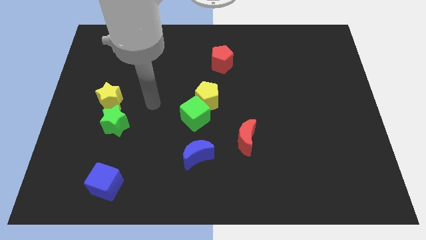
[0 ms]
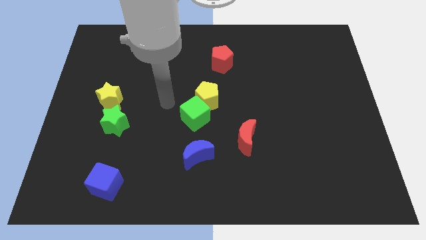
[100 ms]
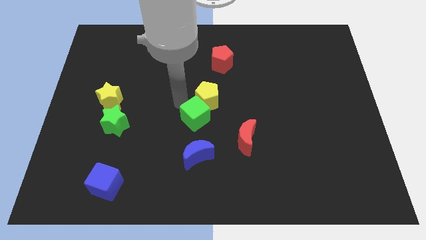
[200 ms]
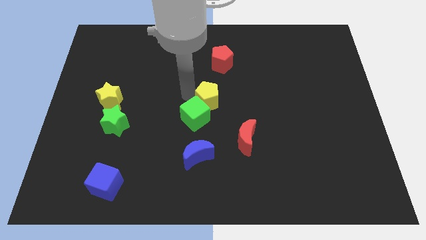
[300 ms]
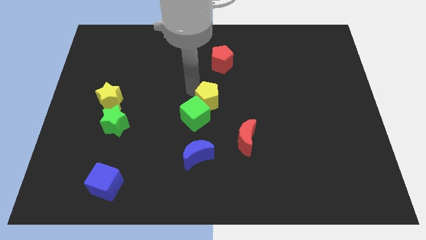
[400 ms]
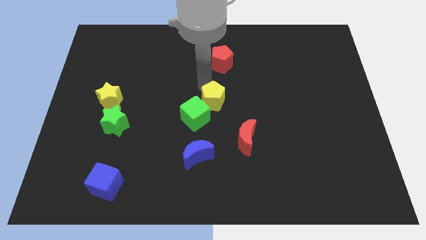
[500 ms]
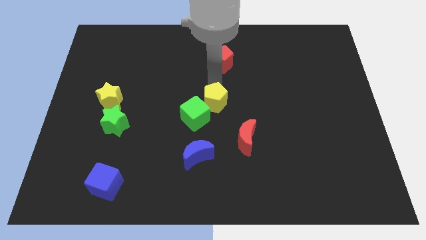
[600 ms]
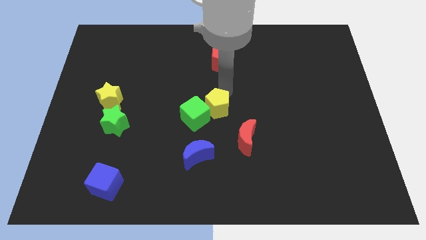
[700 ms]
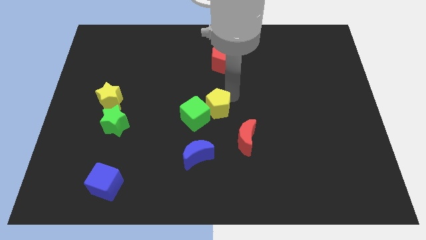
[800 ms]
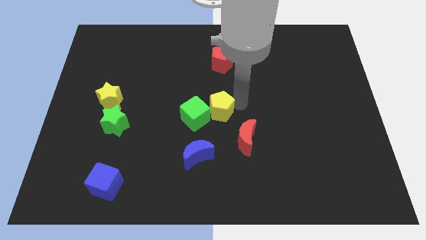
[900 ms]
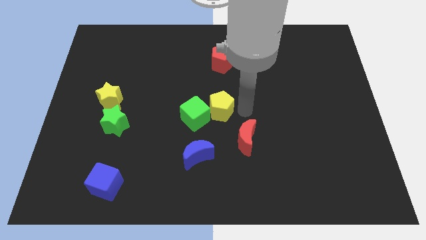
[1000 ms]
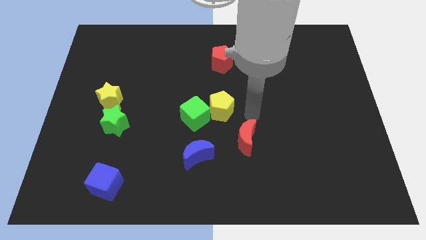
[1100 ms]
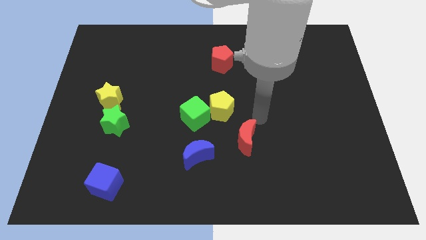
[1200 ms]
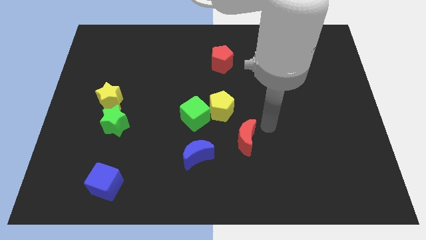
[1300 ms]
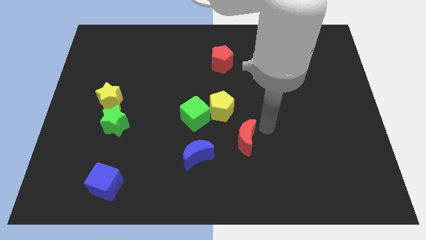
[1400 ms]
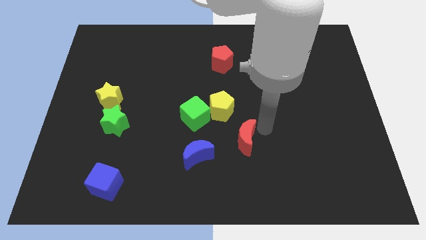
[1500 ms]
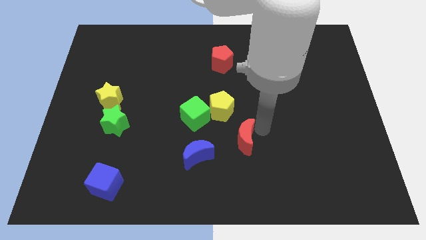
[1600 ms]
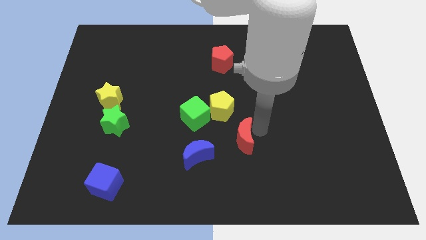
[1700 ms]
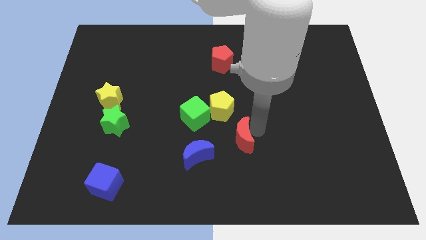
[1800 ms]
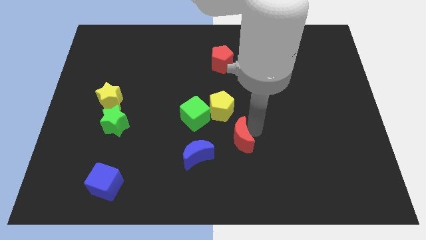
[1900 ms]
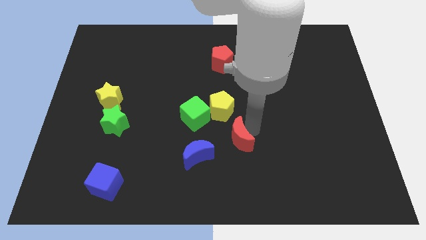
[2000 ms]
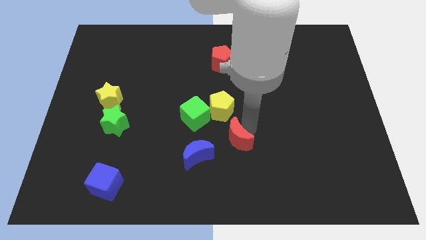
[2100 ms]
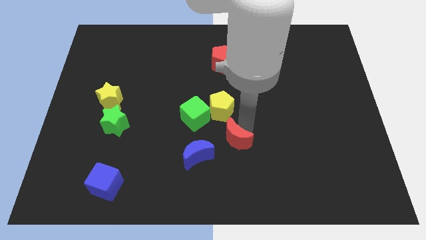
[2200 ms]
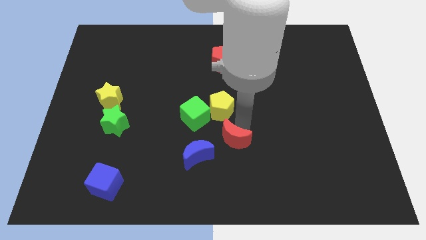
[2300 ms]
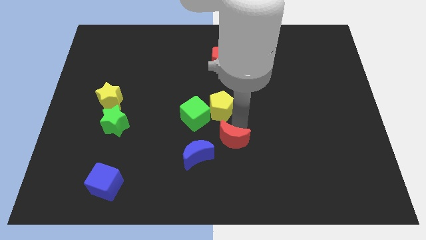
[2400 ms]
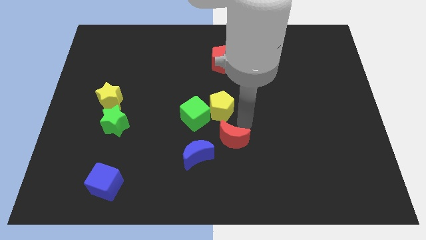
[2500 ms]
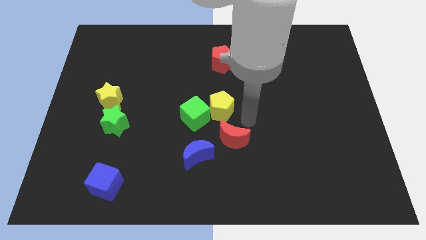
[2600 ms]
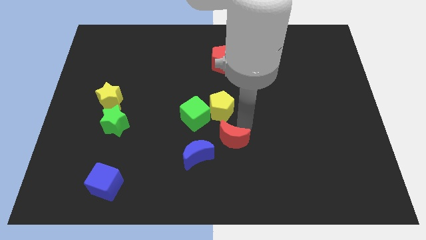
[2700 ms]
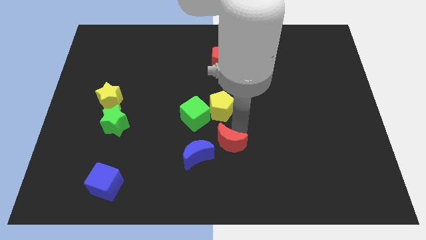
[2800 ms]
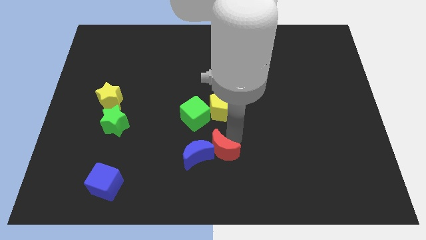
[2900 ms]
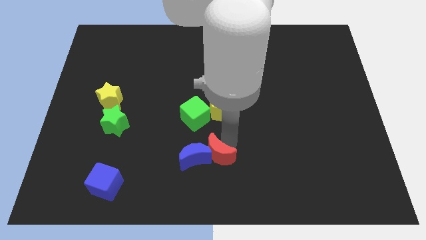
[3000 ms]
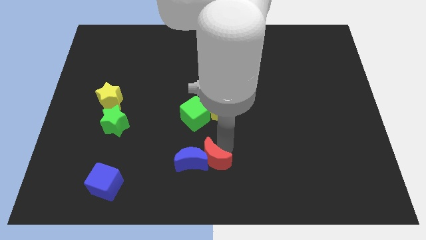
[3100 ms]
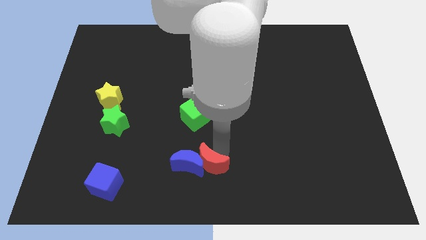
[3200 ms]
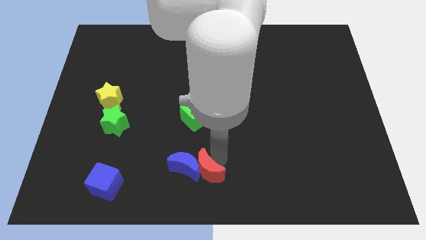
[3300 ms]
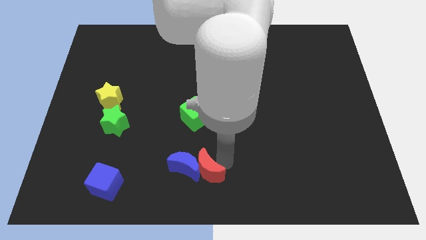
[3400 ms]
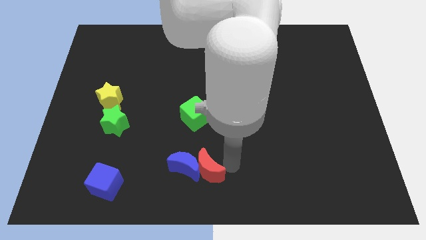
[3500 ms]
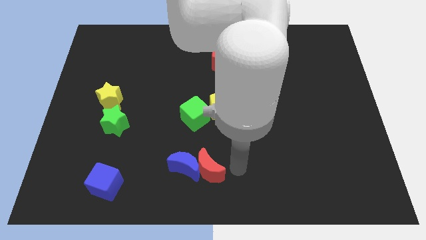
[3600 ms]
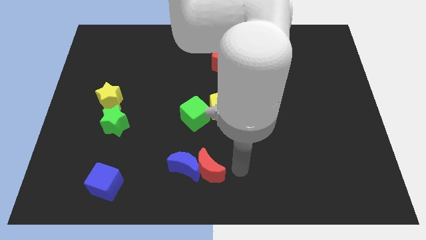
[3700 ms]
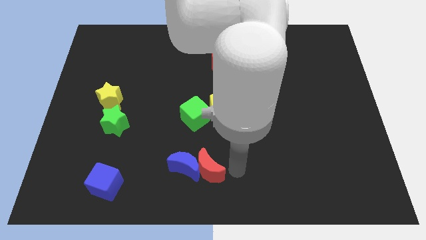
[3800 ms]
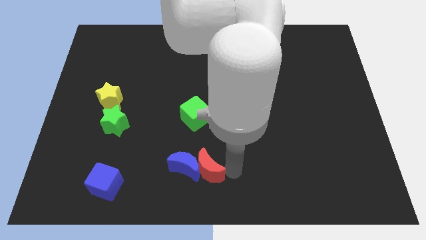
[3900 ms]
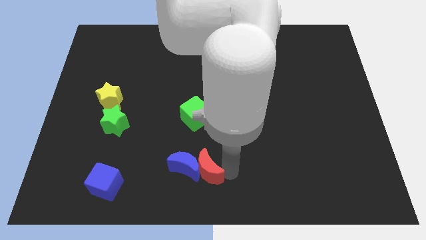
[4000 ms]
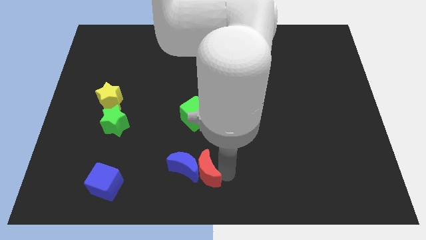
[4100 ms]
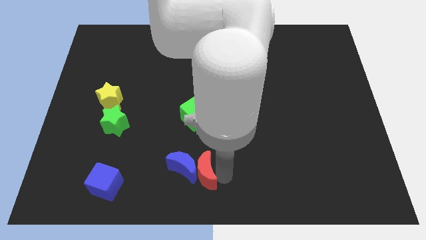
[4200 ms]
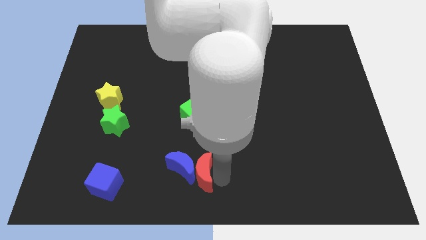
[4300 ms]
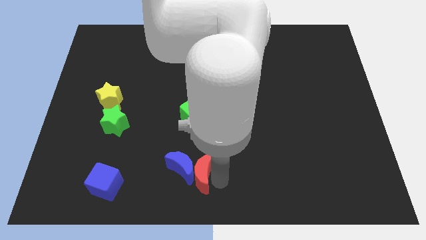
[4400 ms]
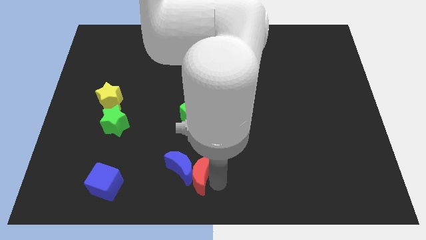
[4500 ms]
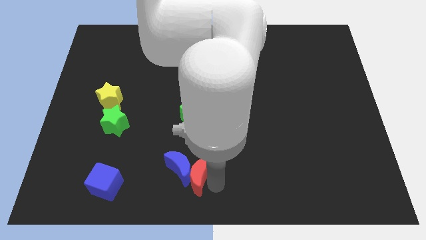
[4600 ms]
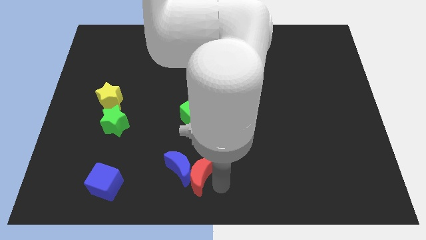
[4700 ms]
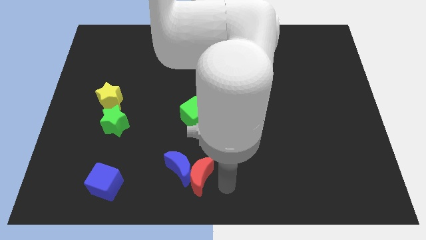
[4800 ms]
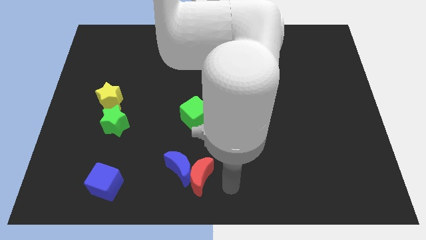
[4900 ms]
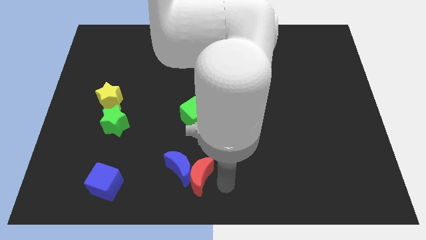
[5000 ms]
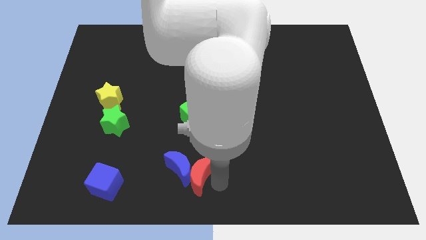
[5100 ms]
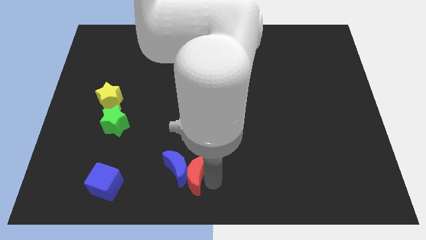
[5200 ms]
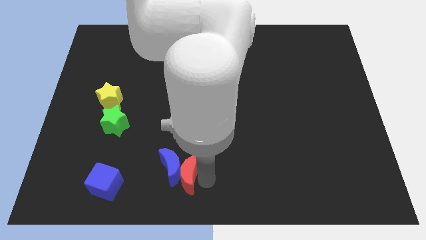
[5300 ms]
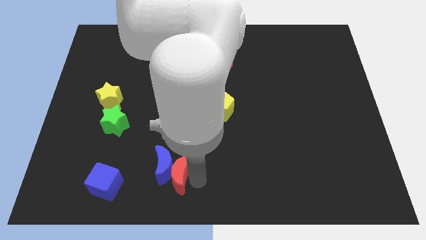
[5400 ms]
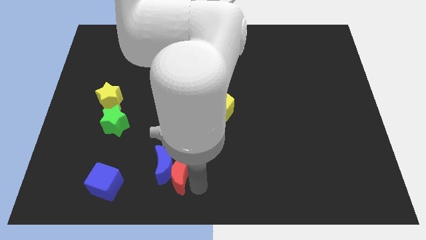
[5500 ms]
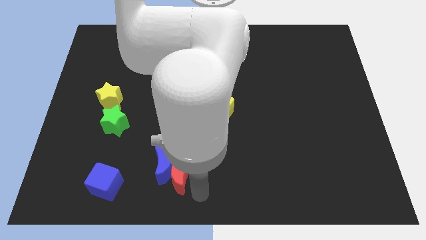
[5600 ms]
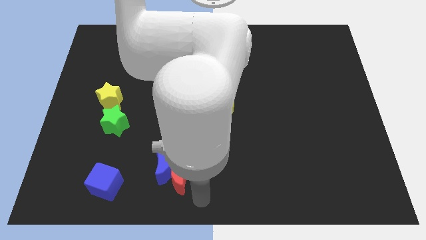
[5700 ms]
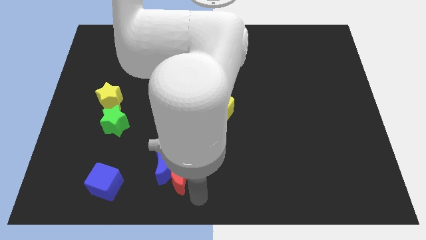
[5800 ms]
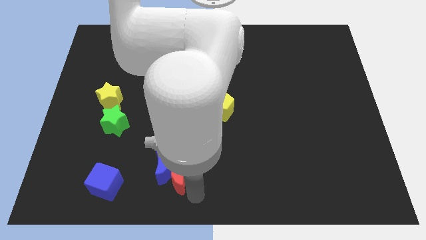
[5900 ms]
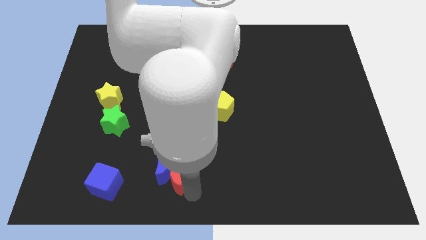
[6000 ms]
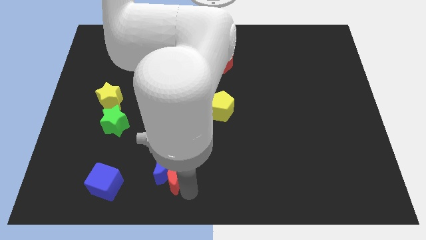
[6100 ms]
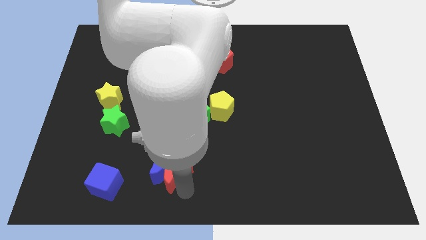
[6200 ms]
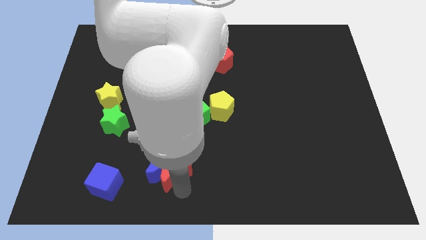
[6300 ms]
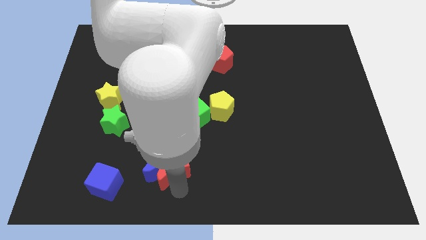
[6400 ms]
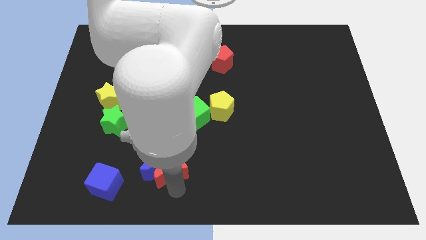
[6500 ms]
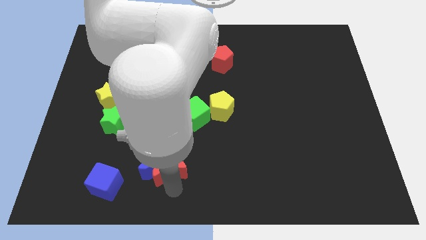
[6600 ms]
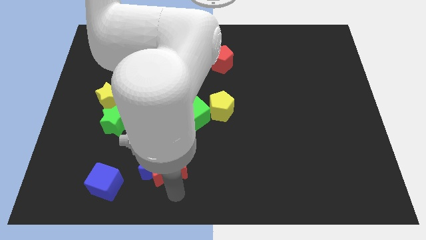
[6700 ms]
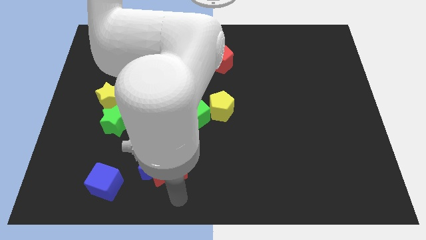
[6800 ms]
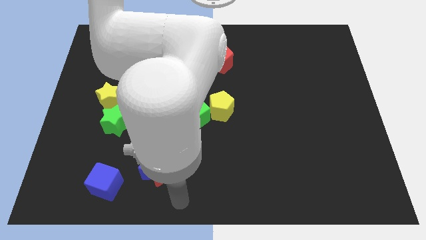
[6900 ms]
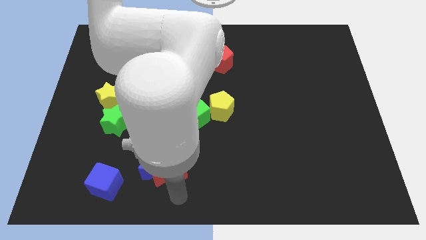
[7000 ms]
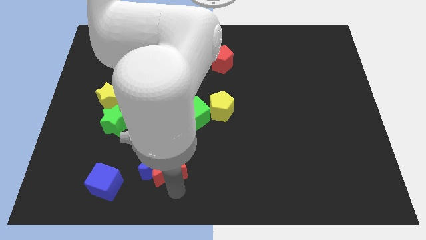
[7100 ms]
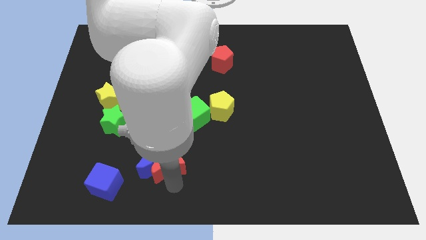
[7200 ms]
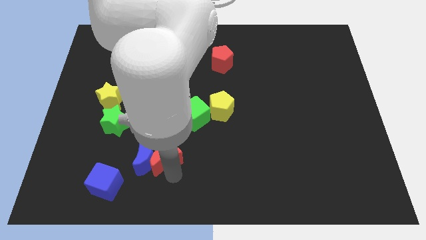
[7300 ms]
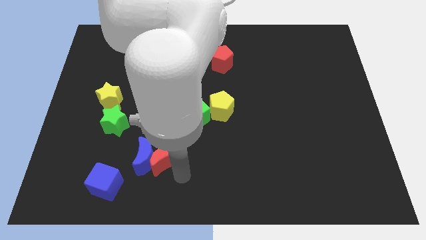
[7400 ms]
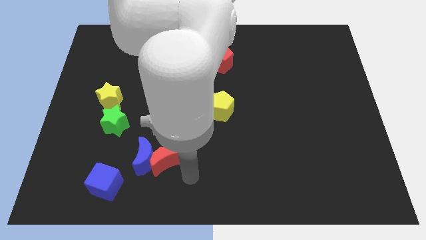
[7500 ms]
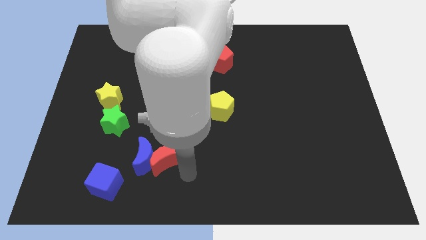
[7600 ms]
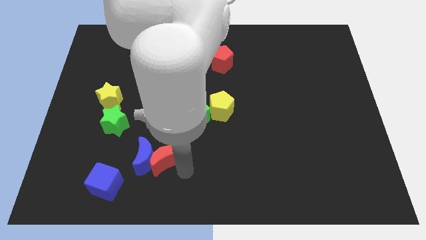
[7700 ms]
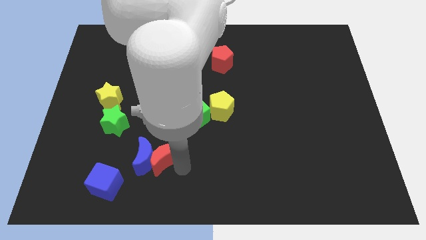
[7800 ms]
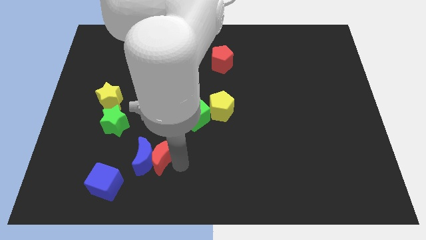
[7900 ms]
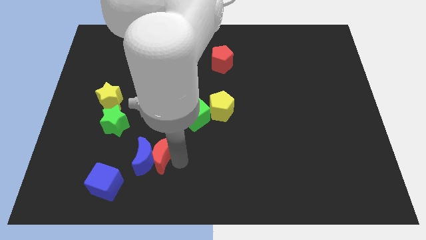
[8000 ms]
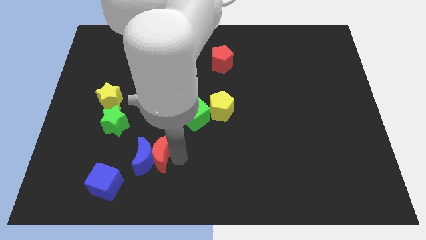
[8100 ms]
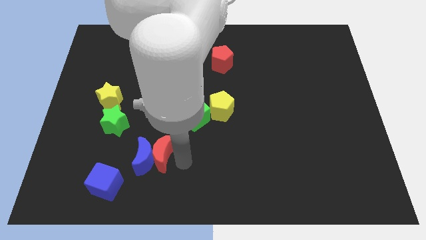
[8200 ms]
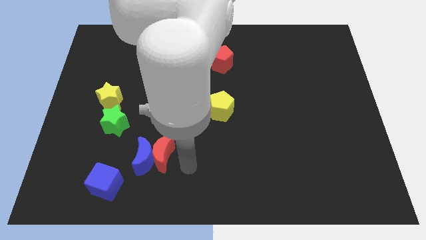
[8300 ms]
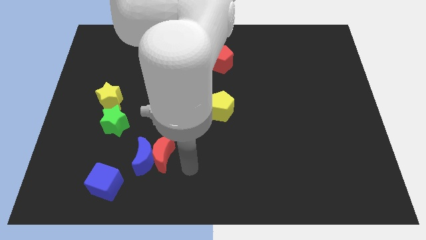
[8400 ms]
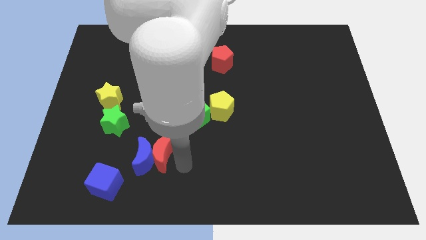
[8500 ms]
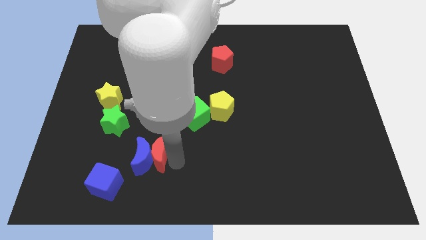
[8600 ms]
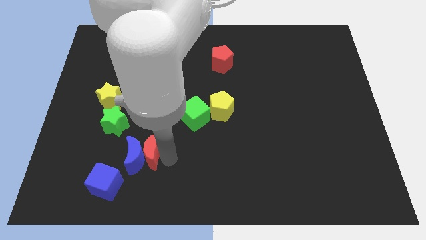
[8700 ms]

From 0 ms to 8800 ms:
push the red moon to the bottom right side of the green star
